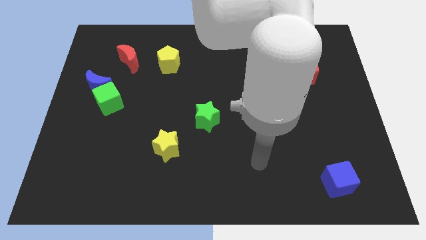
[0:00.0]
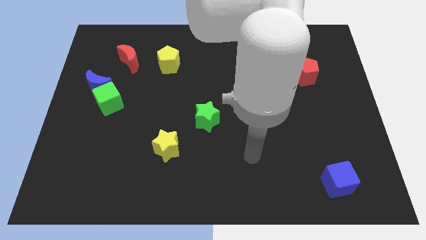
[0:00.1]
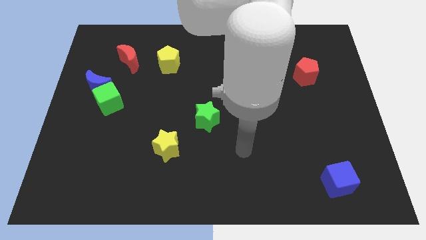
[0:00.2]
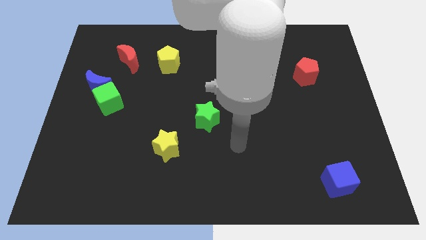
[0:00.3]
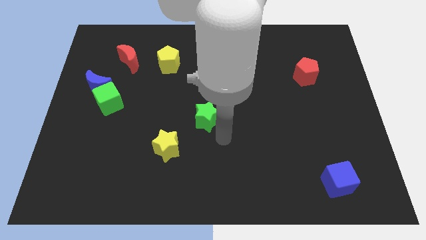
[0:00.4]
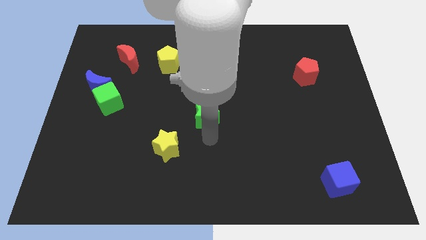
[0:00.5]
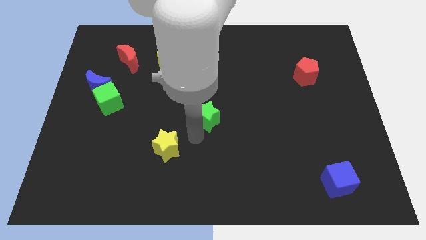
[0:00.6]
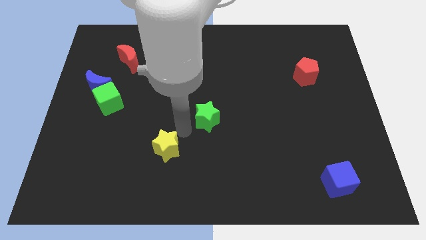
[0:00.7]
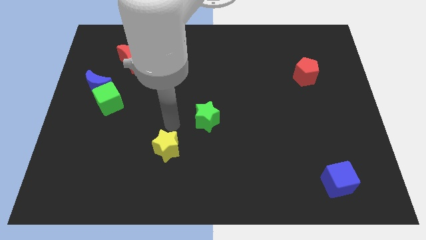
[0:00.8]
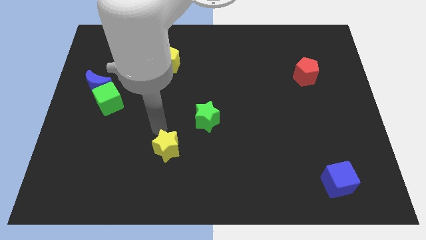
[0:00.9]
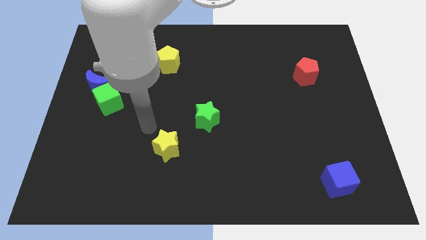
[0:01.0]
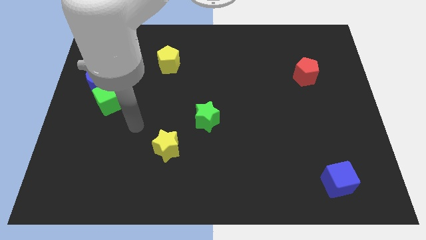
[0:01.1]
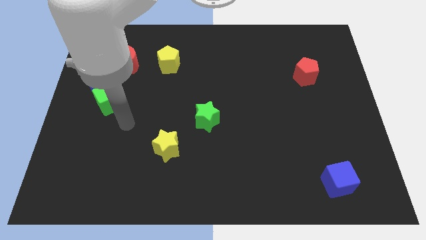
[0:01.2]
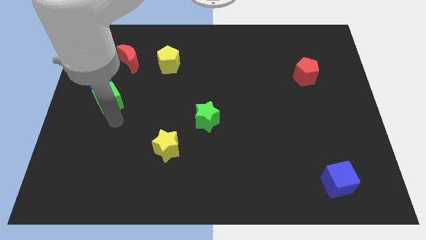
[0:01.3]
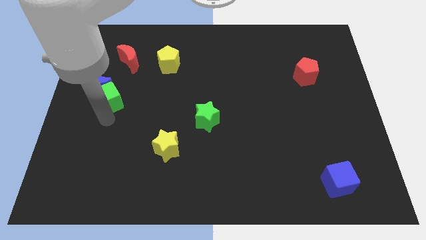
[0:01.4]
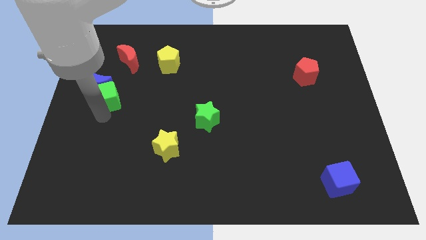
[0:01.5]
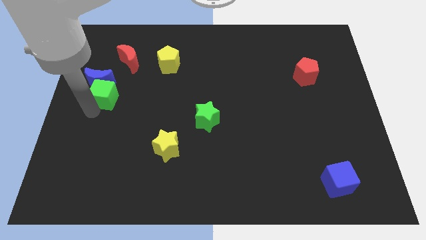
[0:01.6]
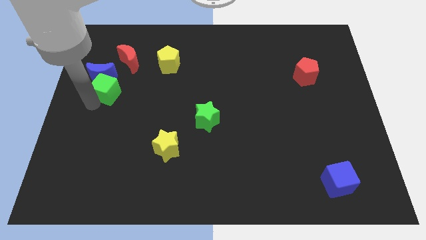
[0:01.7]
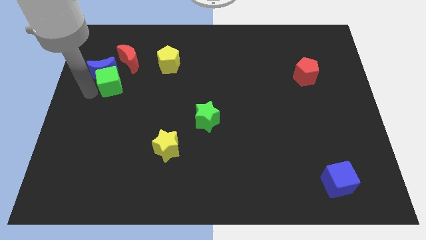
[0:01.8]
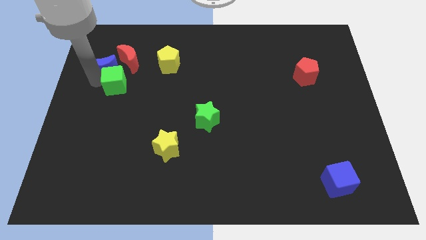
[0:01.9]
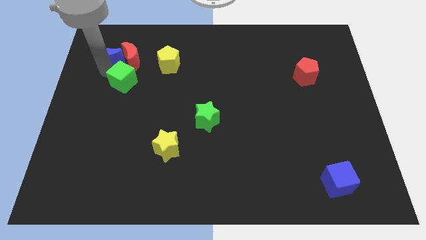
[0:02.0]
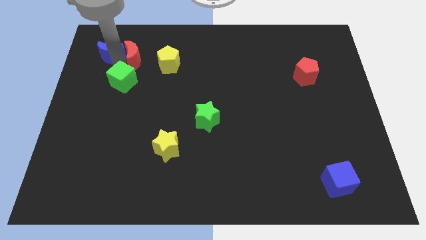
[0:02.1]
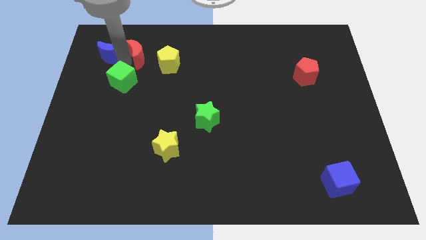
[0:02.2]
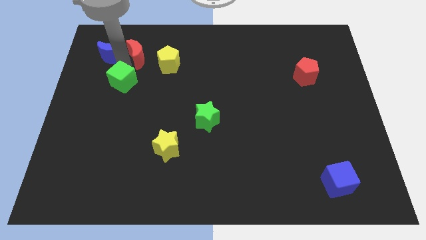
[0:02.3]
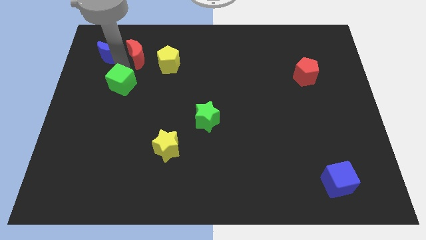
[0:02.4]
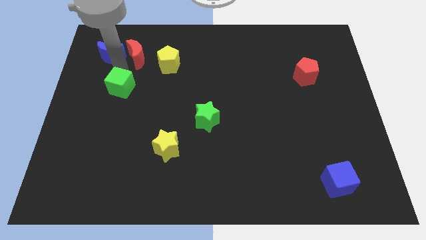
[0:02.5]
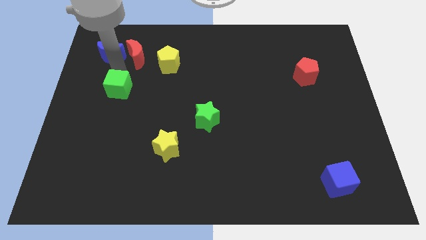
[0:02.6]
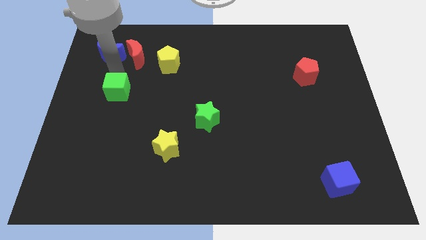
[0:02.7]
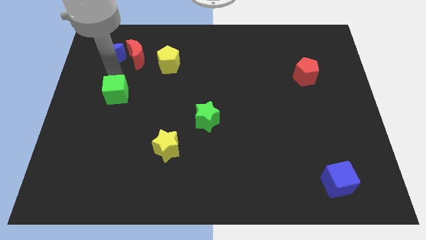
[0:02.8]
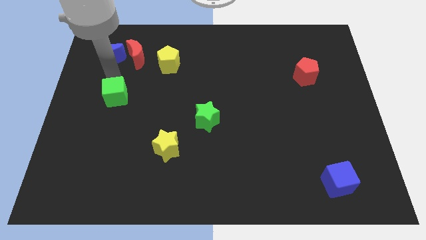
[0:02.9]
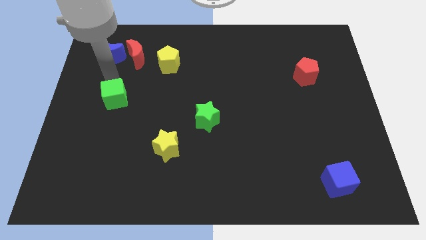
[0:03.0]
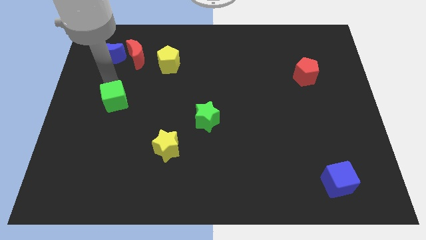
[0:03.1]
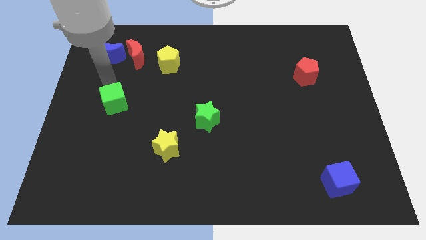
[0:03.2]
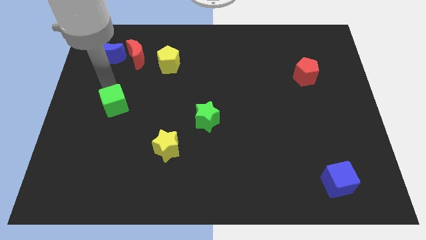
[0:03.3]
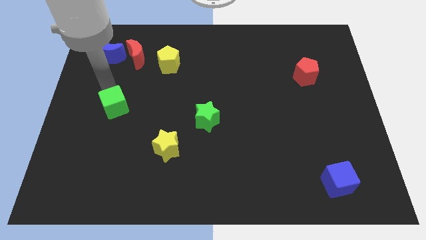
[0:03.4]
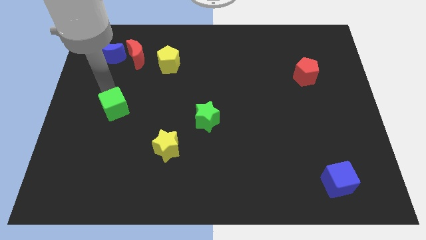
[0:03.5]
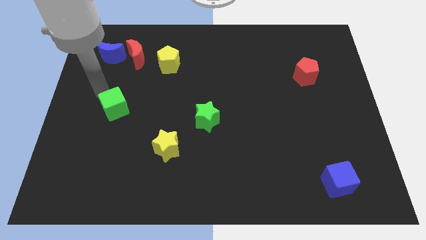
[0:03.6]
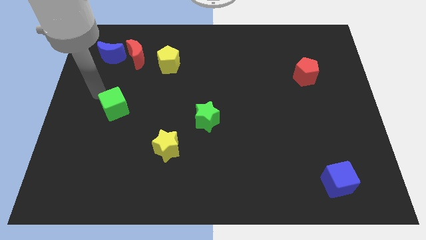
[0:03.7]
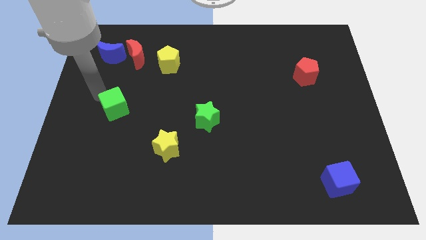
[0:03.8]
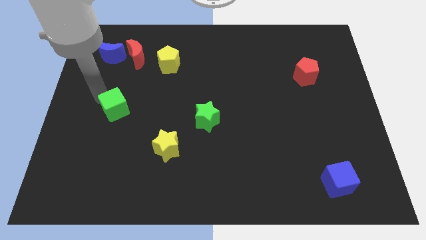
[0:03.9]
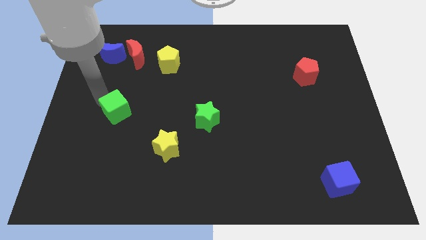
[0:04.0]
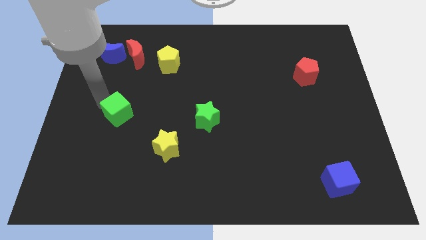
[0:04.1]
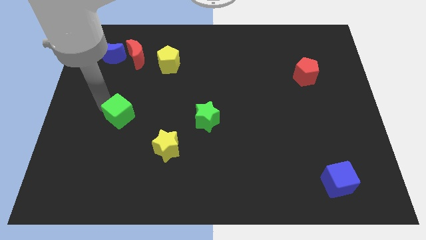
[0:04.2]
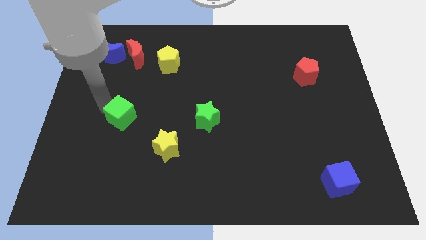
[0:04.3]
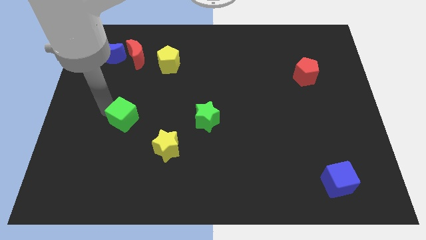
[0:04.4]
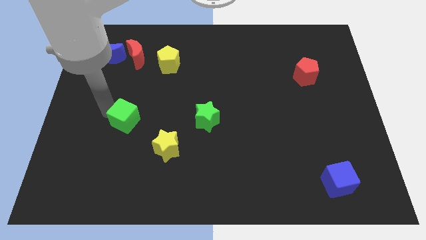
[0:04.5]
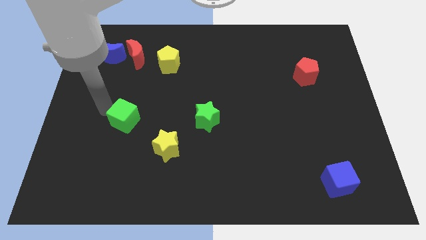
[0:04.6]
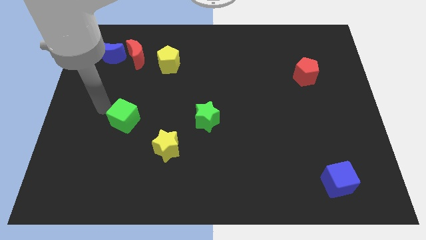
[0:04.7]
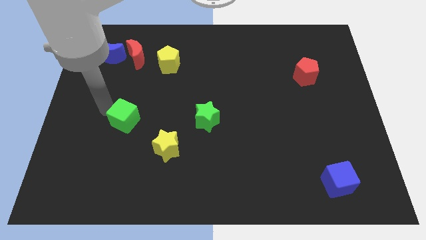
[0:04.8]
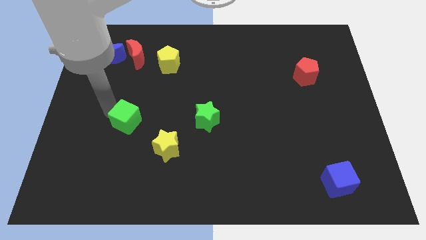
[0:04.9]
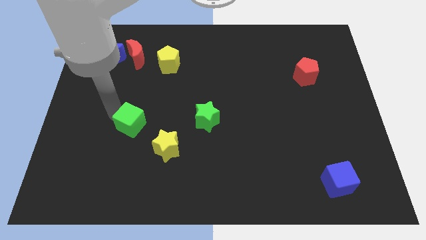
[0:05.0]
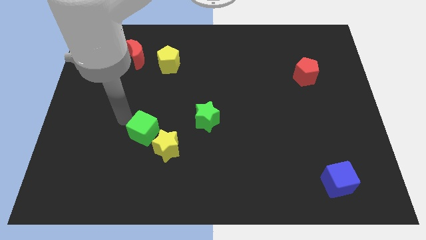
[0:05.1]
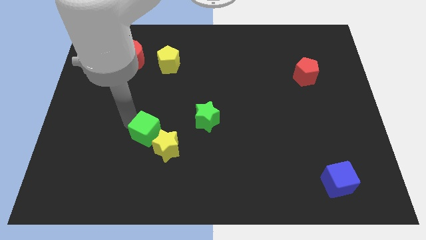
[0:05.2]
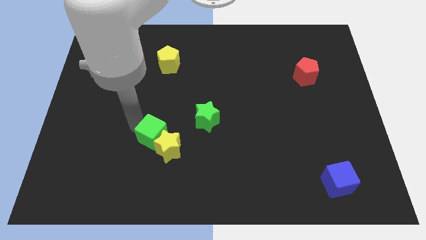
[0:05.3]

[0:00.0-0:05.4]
put the green cube close to the yellow star

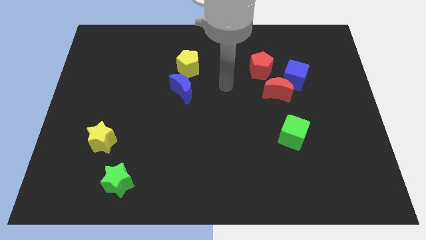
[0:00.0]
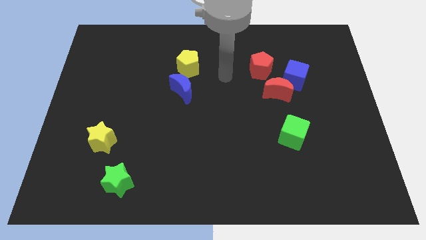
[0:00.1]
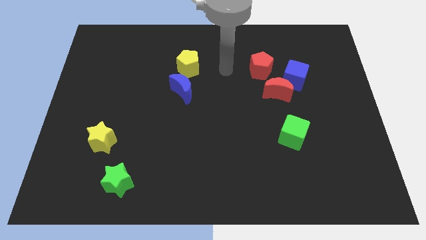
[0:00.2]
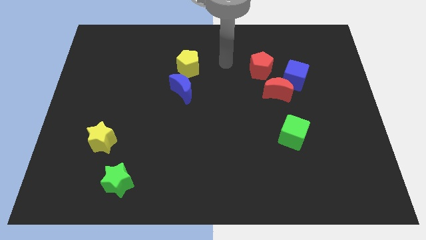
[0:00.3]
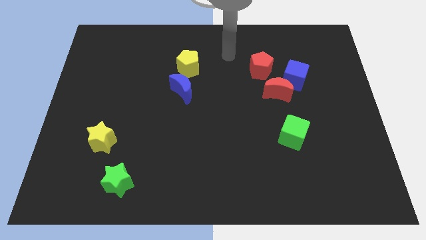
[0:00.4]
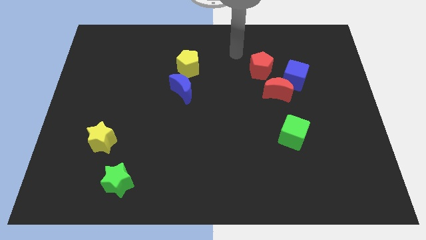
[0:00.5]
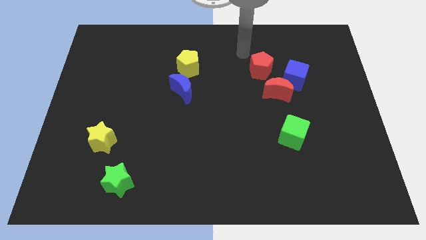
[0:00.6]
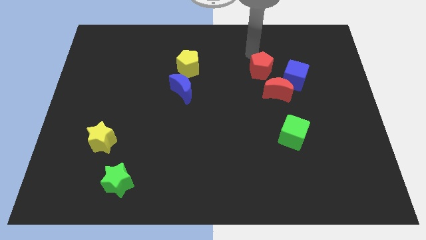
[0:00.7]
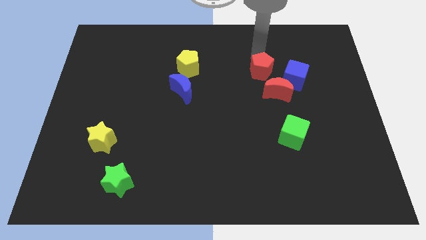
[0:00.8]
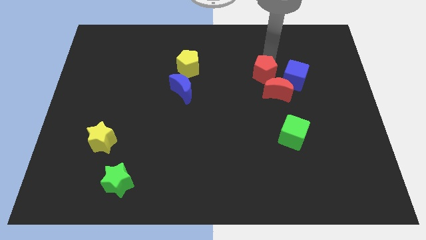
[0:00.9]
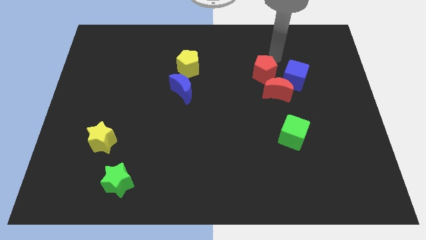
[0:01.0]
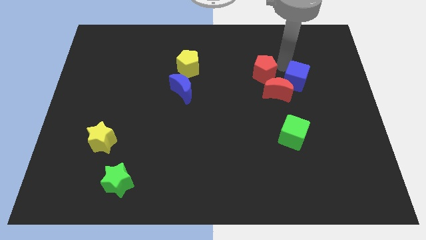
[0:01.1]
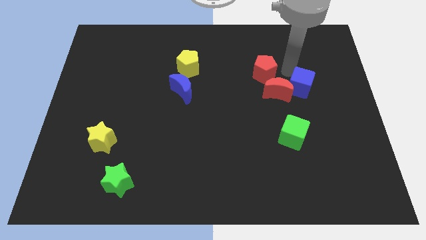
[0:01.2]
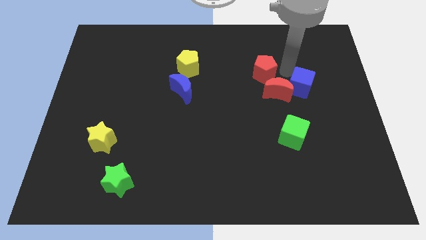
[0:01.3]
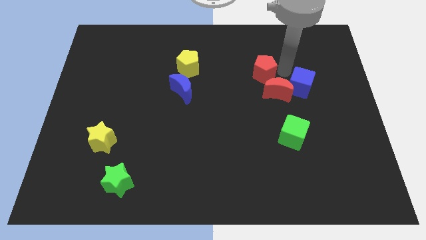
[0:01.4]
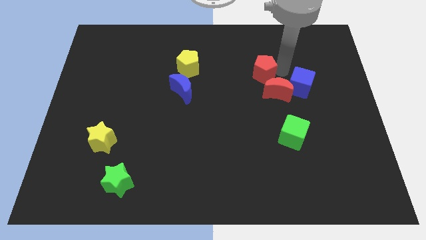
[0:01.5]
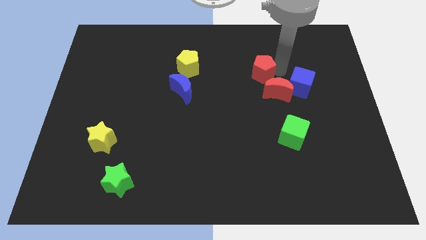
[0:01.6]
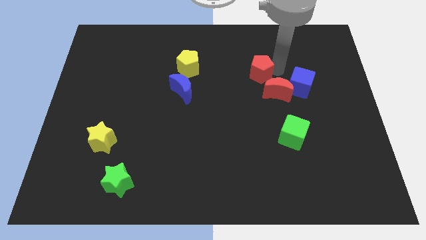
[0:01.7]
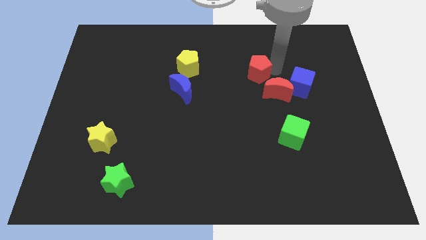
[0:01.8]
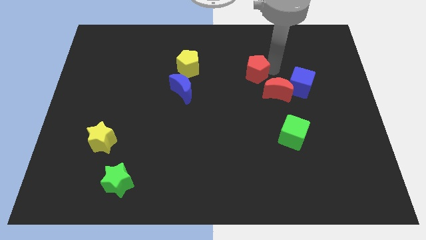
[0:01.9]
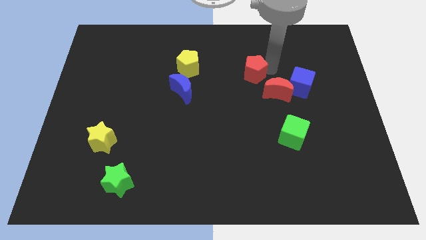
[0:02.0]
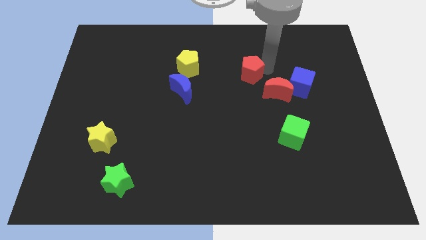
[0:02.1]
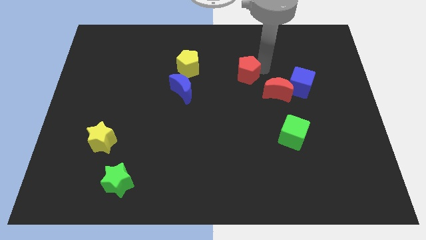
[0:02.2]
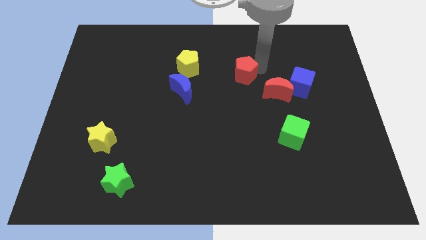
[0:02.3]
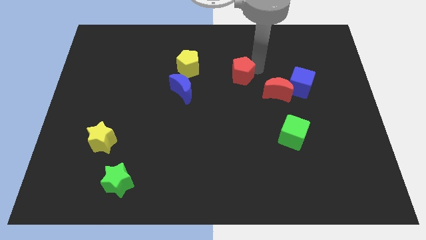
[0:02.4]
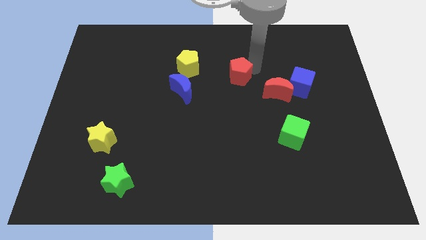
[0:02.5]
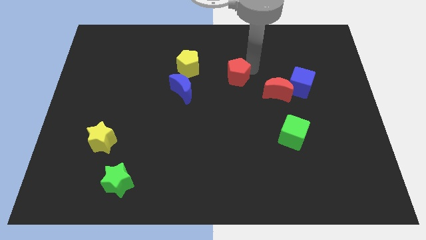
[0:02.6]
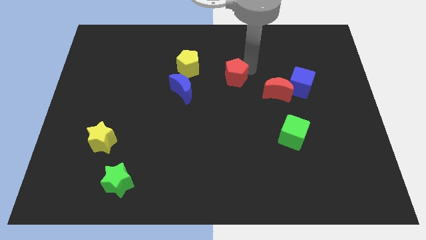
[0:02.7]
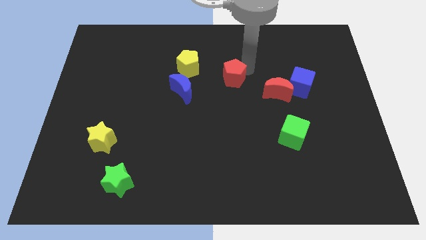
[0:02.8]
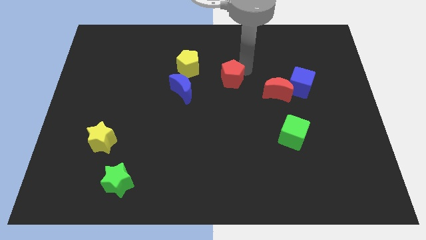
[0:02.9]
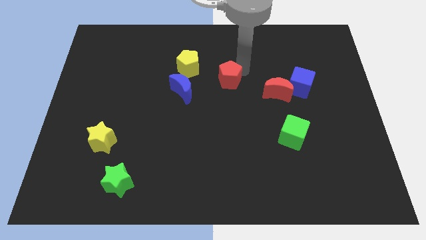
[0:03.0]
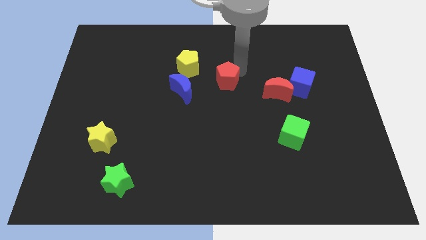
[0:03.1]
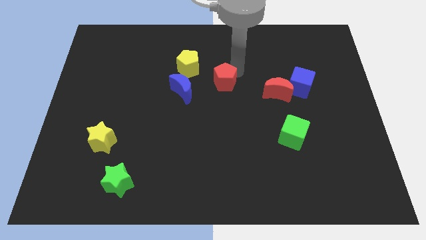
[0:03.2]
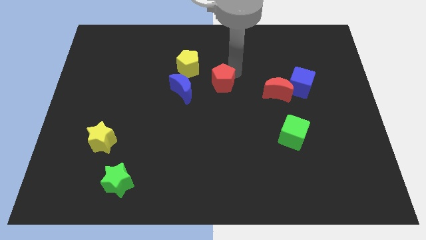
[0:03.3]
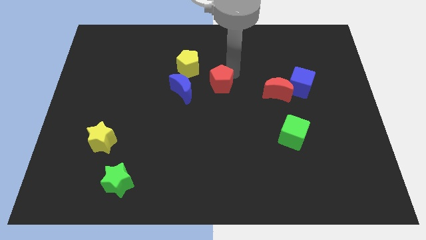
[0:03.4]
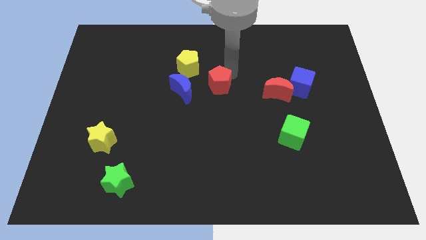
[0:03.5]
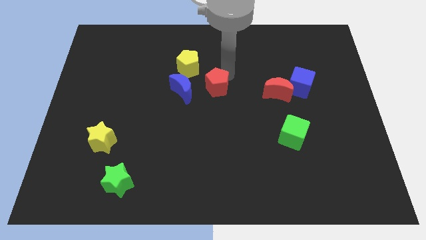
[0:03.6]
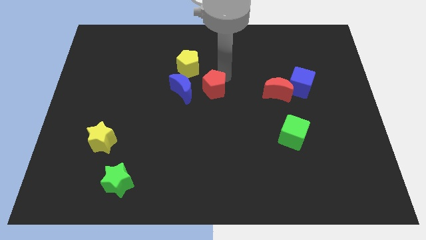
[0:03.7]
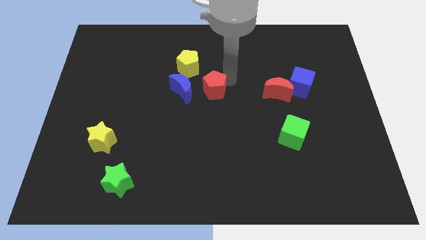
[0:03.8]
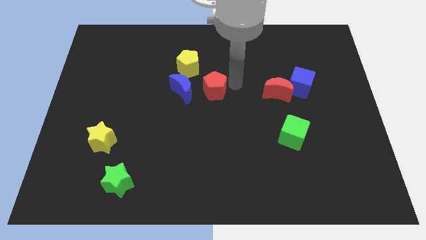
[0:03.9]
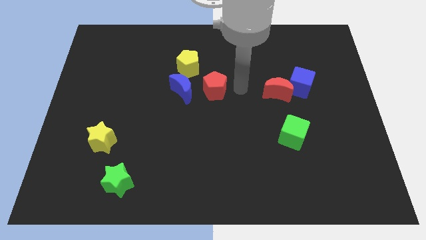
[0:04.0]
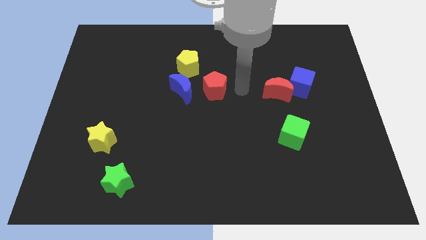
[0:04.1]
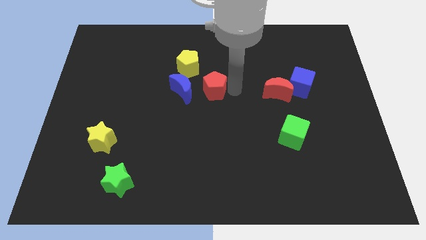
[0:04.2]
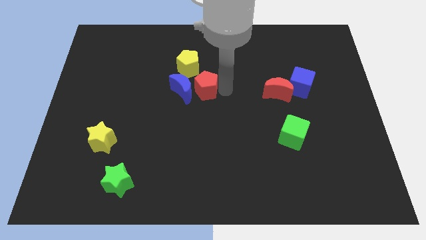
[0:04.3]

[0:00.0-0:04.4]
put the red pentagon close to the blue moon
